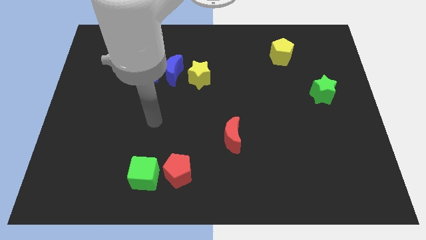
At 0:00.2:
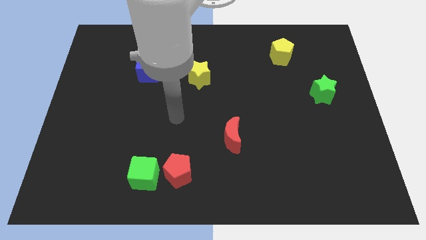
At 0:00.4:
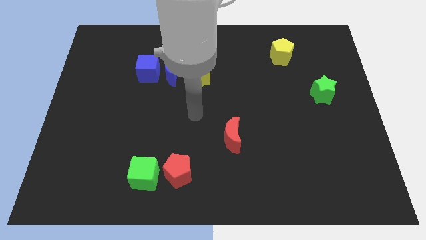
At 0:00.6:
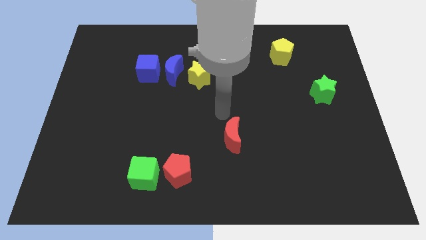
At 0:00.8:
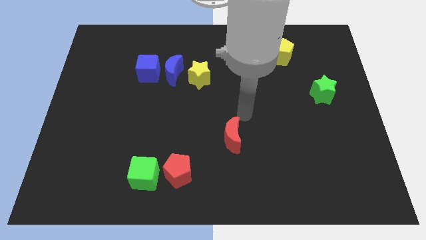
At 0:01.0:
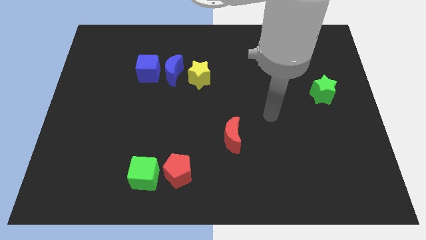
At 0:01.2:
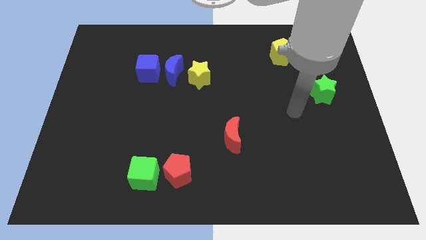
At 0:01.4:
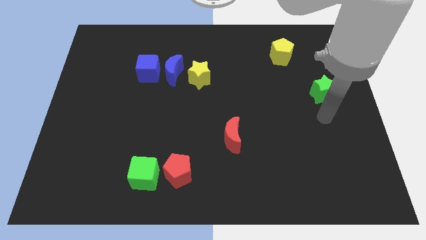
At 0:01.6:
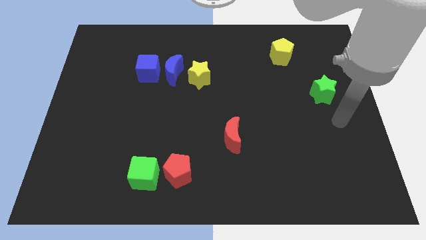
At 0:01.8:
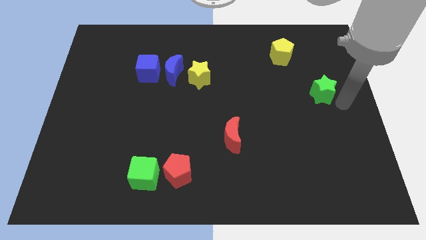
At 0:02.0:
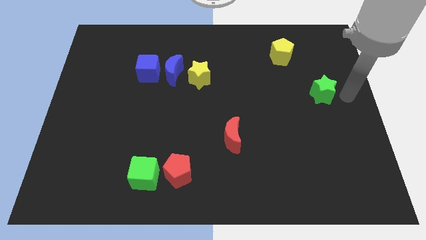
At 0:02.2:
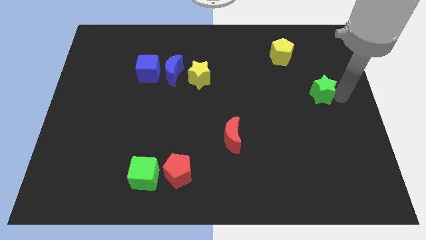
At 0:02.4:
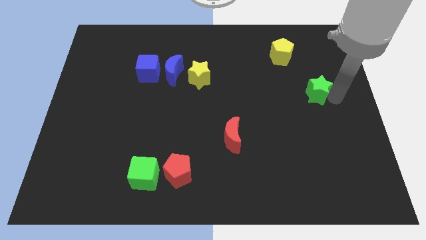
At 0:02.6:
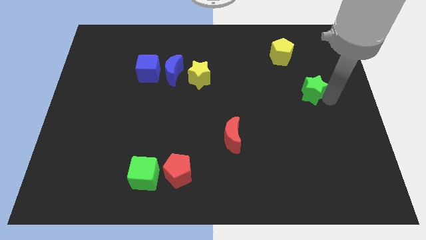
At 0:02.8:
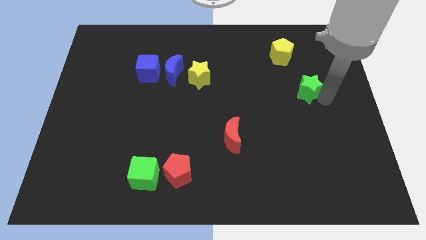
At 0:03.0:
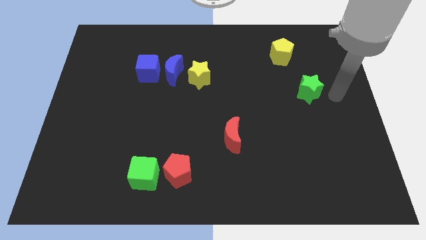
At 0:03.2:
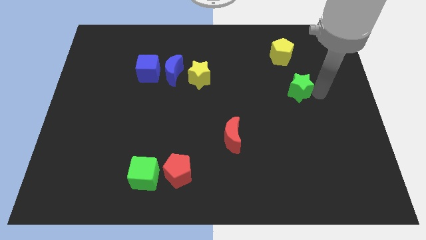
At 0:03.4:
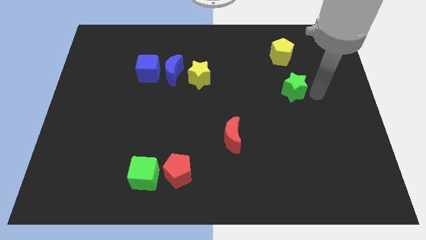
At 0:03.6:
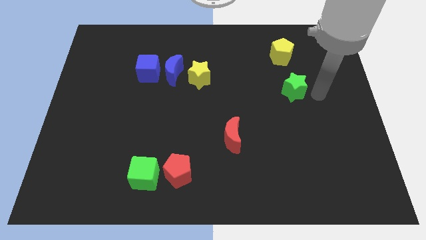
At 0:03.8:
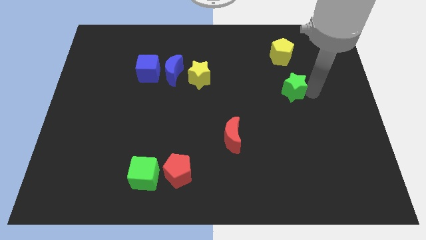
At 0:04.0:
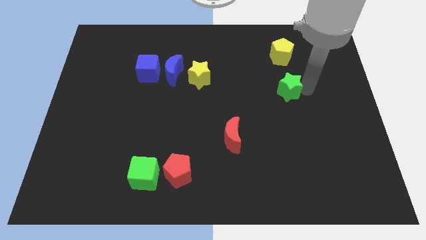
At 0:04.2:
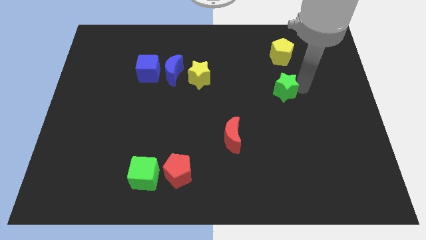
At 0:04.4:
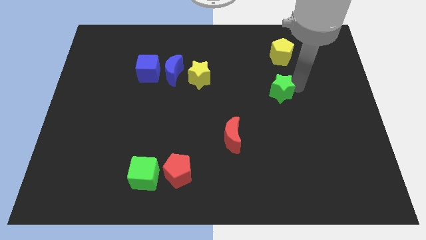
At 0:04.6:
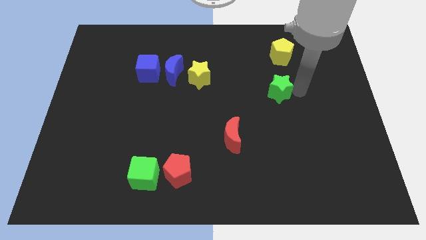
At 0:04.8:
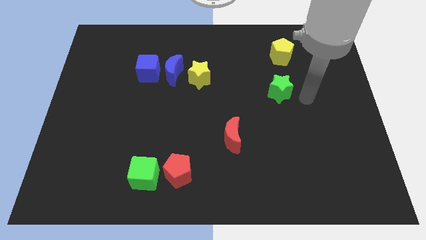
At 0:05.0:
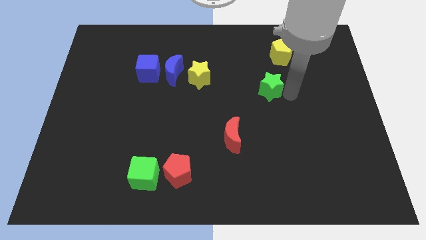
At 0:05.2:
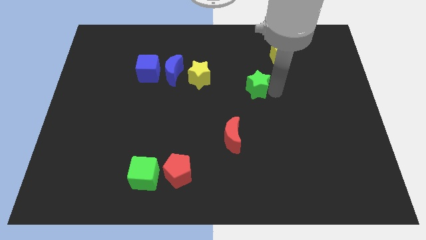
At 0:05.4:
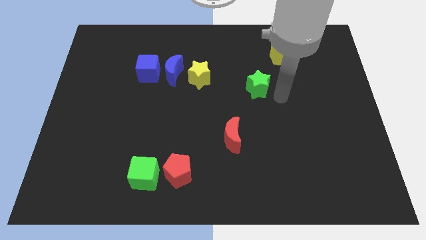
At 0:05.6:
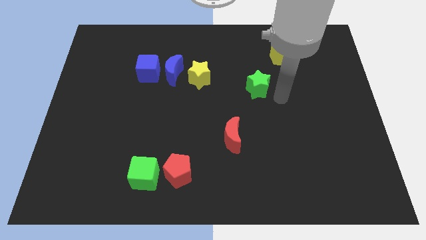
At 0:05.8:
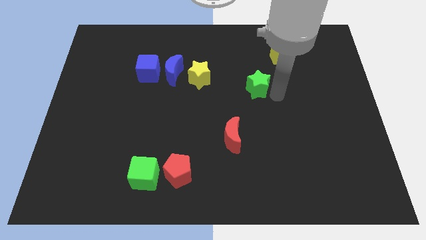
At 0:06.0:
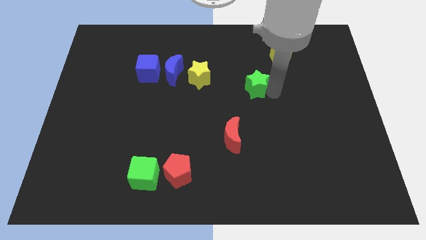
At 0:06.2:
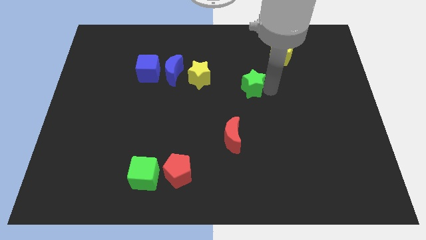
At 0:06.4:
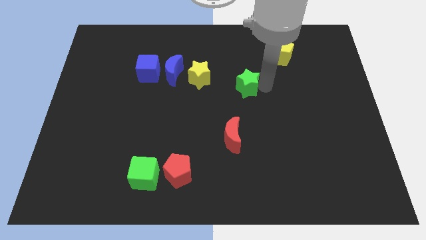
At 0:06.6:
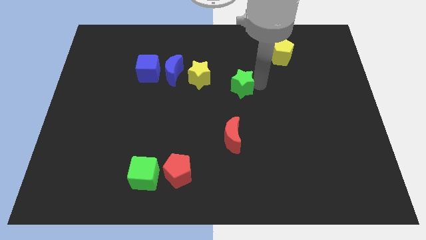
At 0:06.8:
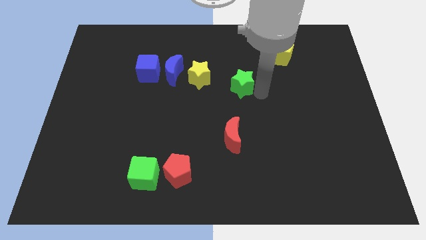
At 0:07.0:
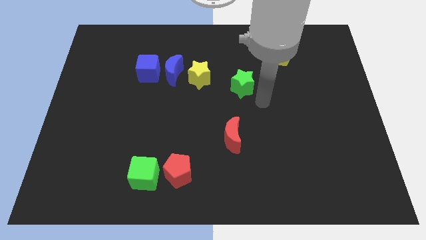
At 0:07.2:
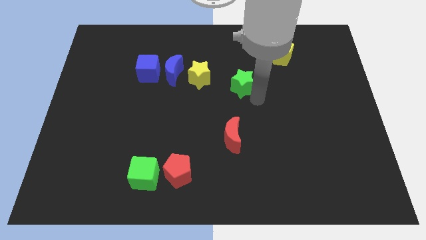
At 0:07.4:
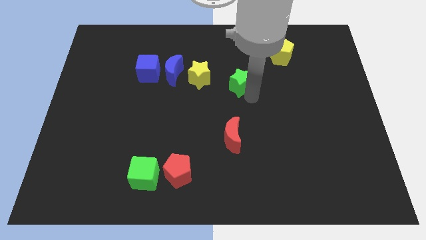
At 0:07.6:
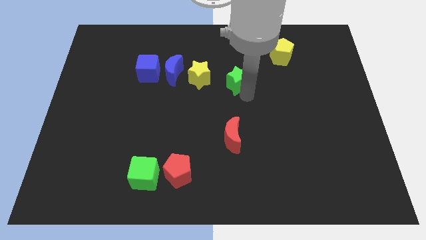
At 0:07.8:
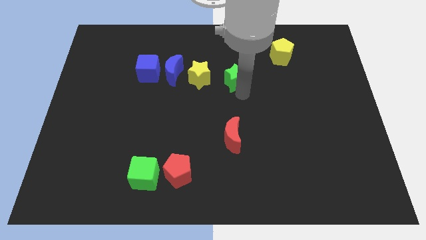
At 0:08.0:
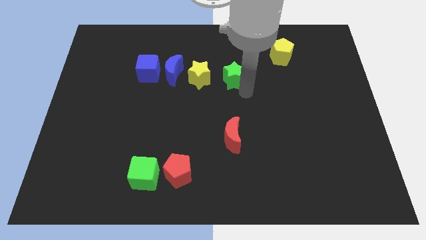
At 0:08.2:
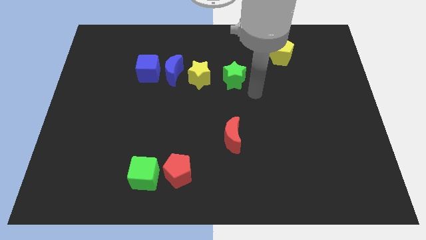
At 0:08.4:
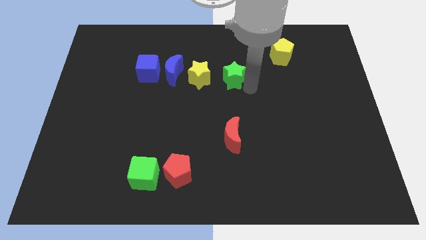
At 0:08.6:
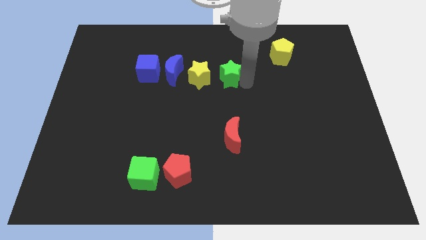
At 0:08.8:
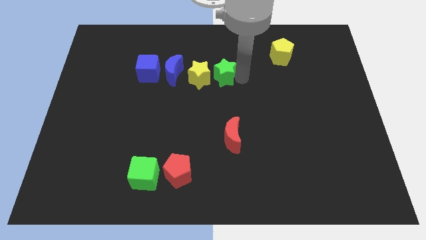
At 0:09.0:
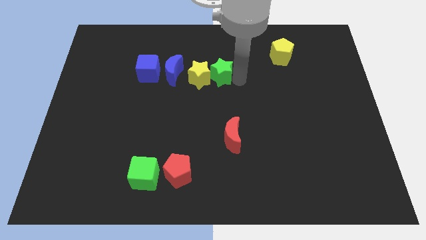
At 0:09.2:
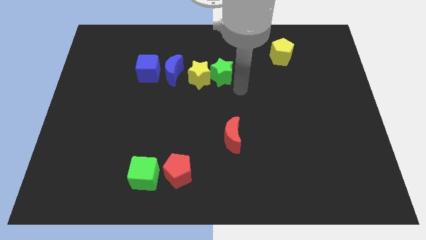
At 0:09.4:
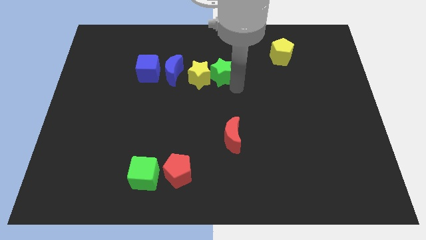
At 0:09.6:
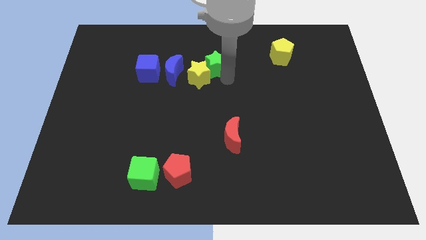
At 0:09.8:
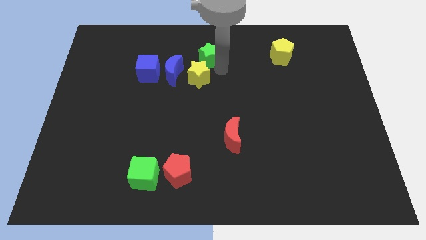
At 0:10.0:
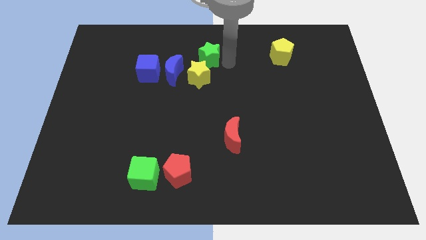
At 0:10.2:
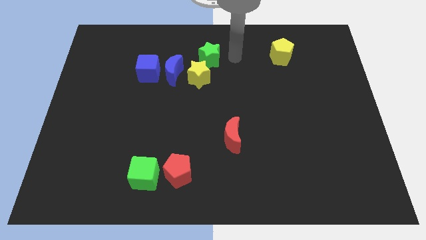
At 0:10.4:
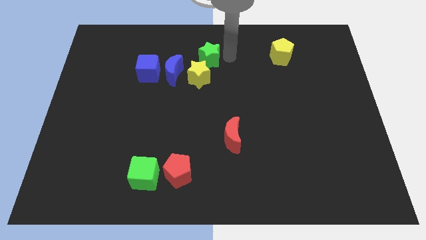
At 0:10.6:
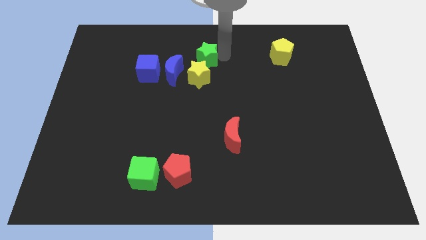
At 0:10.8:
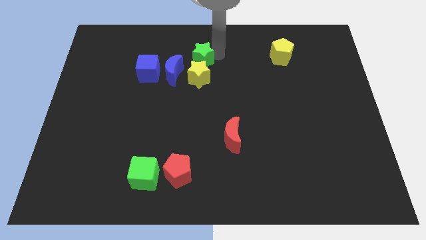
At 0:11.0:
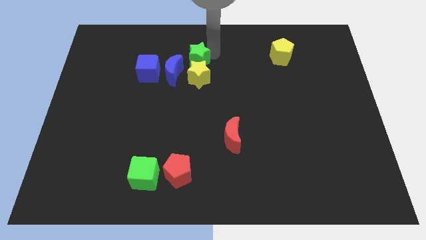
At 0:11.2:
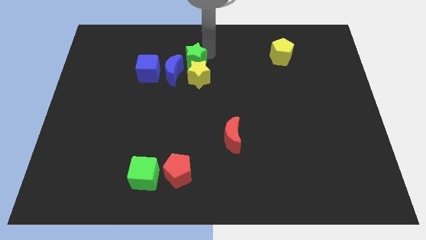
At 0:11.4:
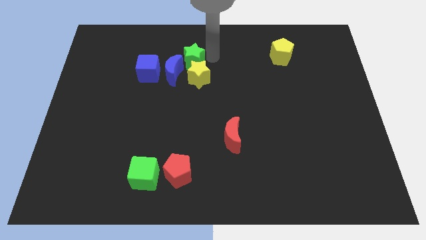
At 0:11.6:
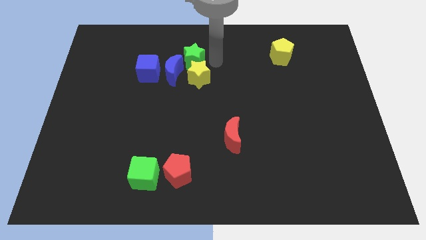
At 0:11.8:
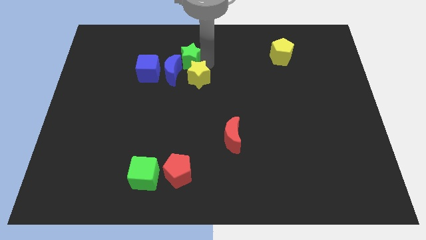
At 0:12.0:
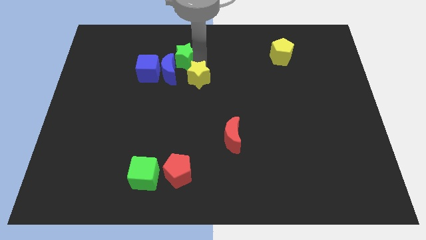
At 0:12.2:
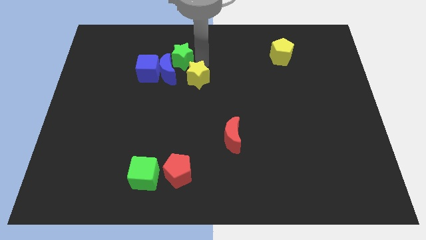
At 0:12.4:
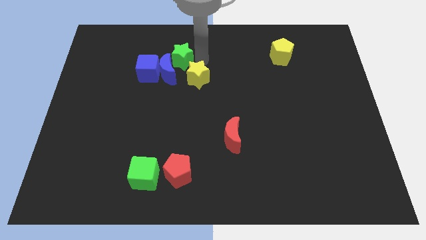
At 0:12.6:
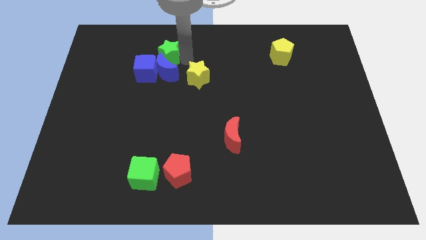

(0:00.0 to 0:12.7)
put the green star to the top left side of the blue moon

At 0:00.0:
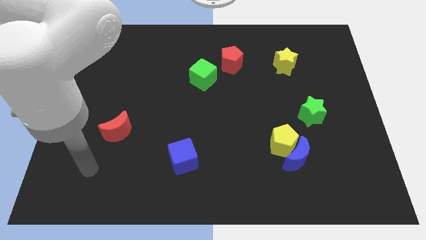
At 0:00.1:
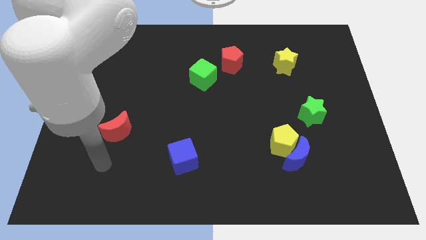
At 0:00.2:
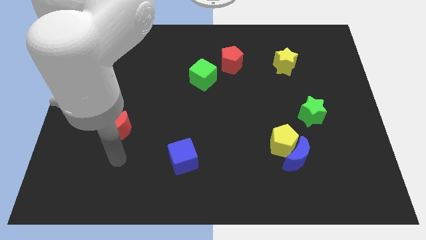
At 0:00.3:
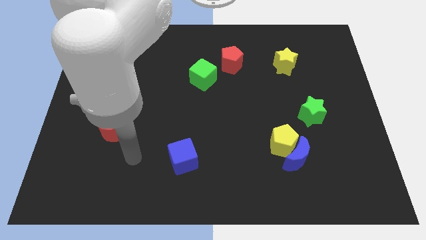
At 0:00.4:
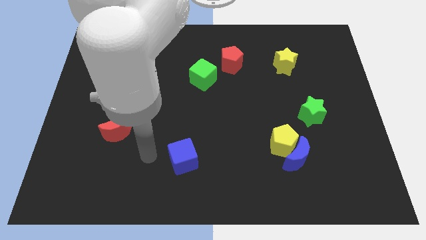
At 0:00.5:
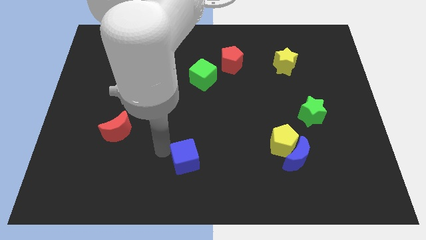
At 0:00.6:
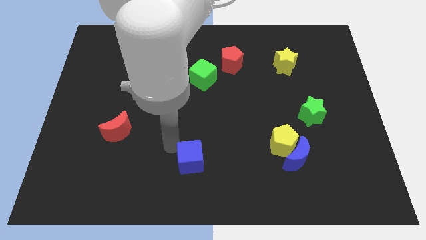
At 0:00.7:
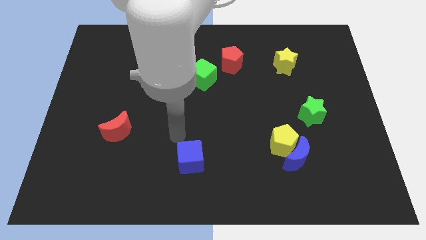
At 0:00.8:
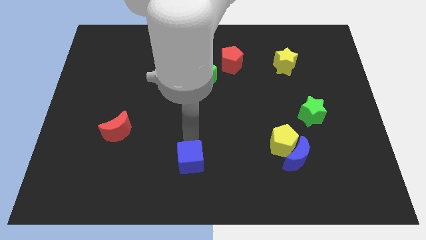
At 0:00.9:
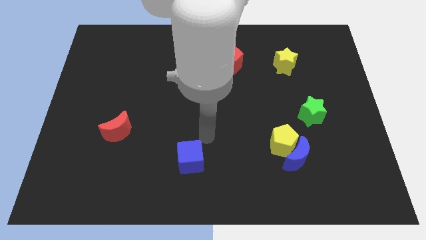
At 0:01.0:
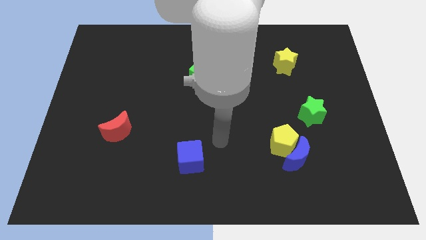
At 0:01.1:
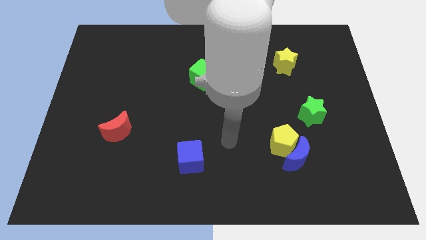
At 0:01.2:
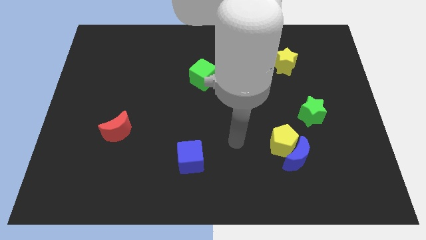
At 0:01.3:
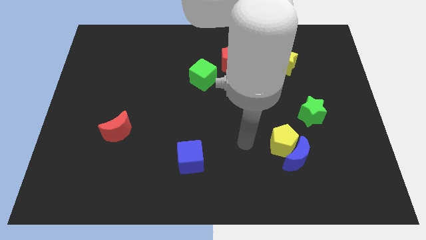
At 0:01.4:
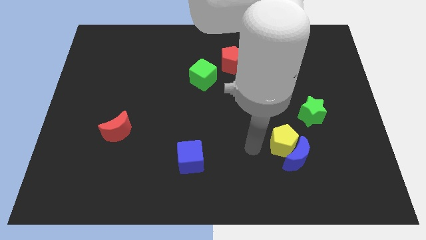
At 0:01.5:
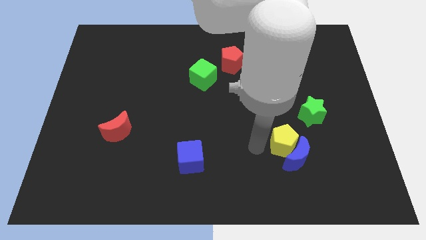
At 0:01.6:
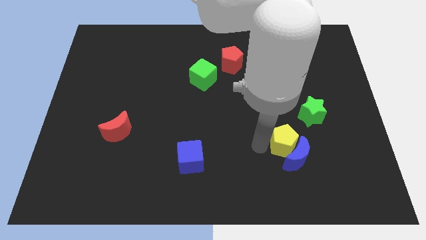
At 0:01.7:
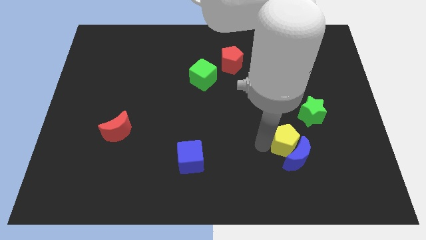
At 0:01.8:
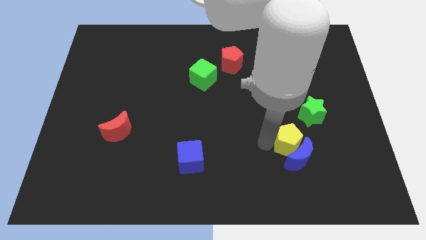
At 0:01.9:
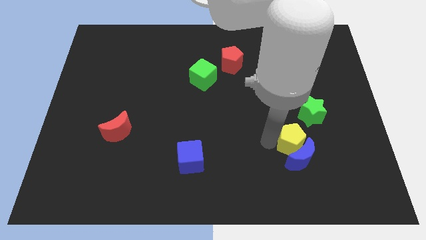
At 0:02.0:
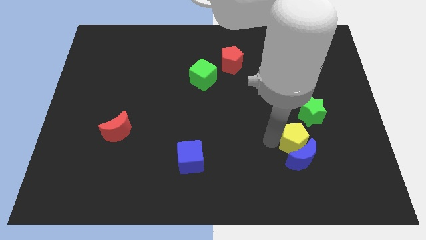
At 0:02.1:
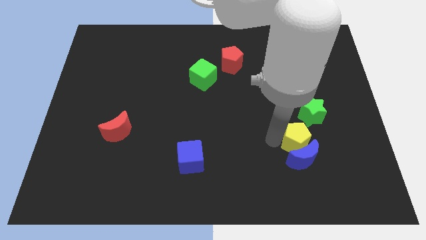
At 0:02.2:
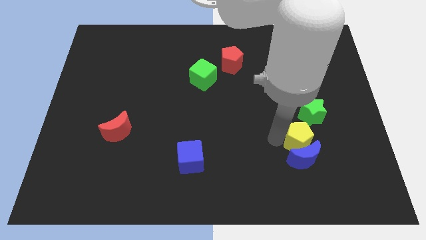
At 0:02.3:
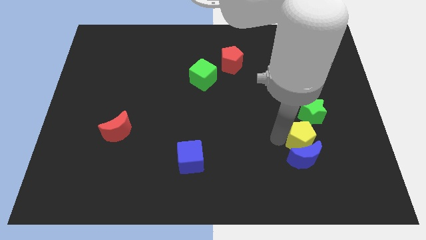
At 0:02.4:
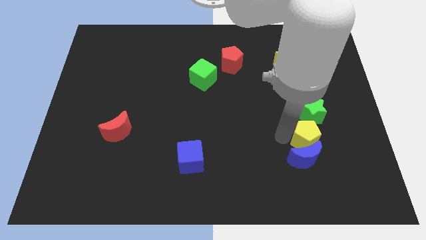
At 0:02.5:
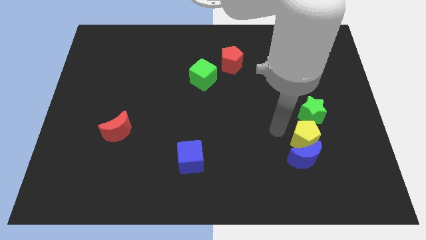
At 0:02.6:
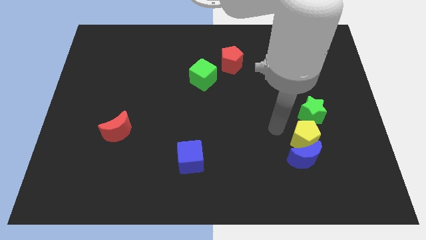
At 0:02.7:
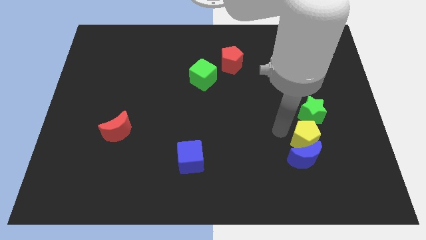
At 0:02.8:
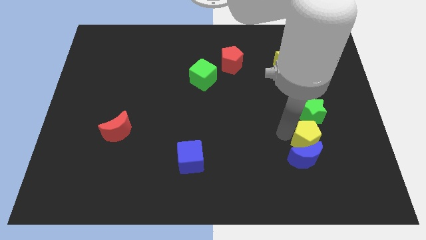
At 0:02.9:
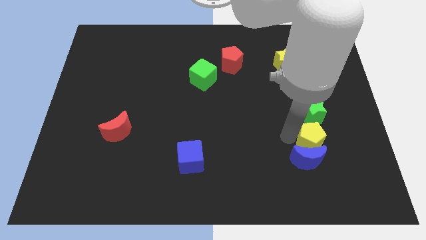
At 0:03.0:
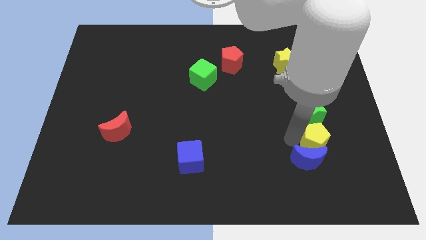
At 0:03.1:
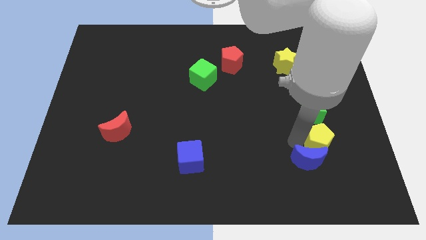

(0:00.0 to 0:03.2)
slide the yellow pentagon just right of the blue moon
